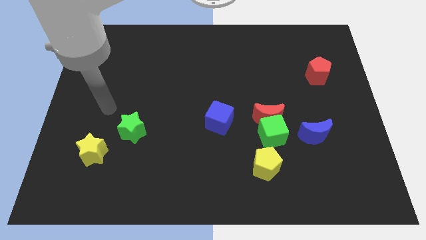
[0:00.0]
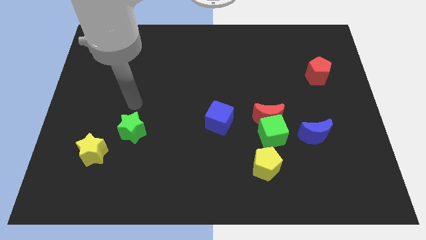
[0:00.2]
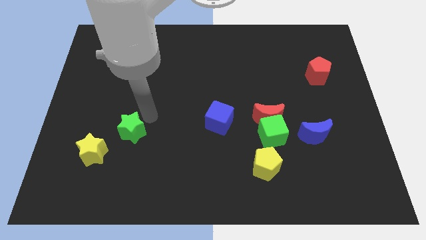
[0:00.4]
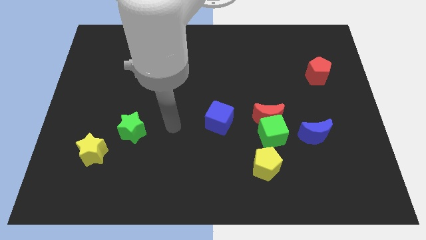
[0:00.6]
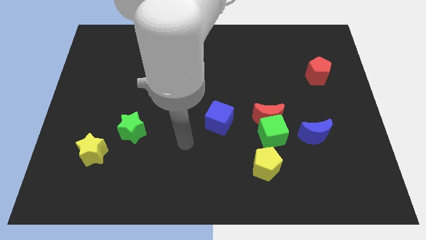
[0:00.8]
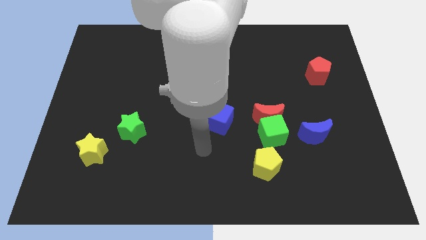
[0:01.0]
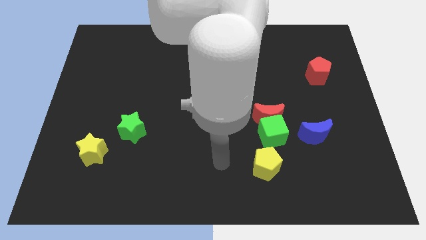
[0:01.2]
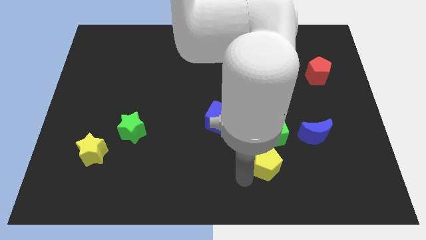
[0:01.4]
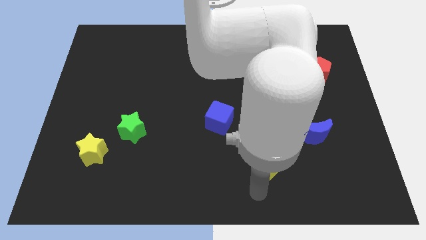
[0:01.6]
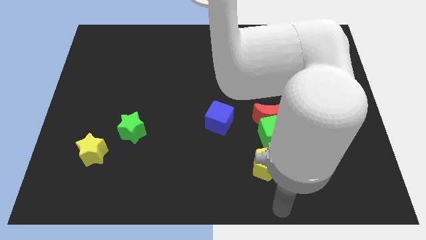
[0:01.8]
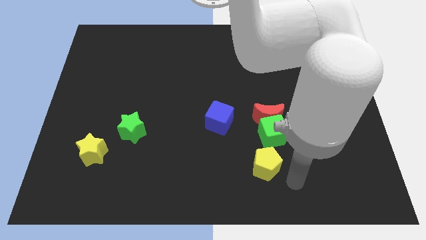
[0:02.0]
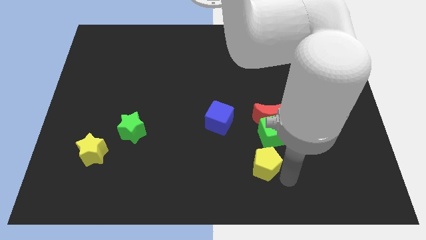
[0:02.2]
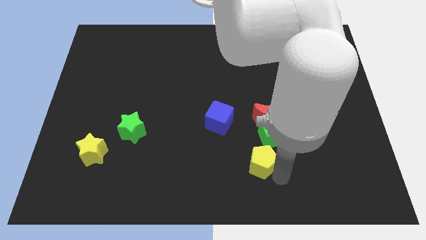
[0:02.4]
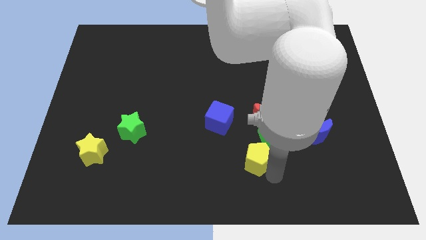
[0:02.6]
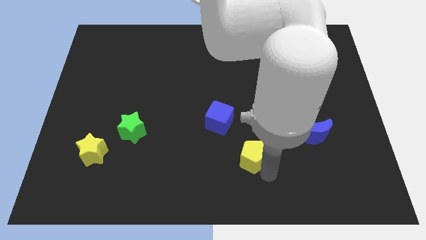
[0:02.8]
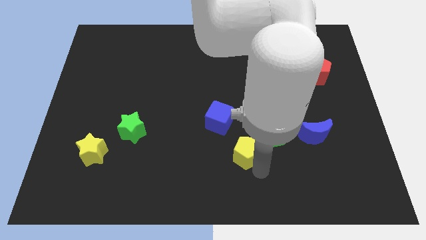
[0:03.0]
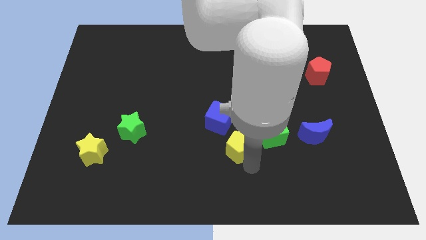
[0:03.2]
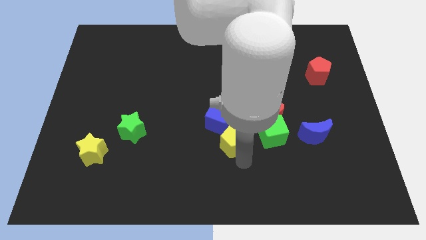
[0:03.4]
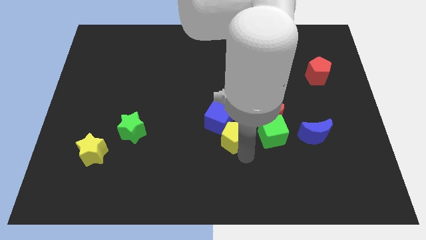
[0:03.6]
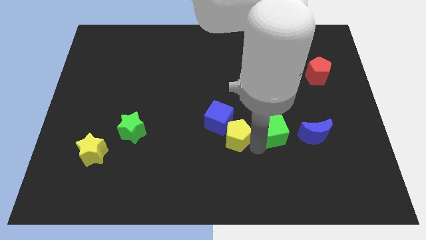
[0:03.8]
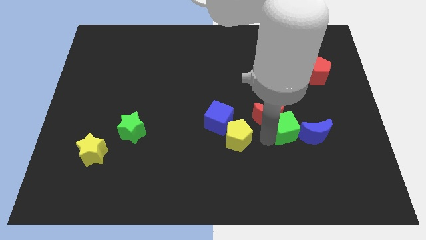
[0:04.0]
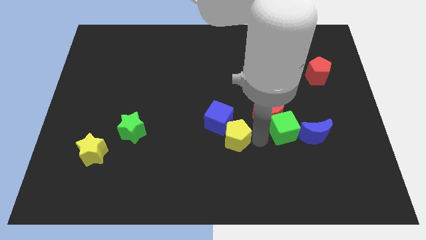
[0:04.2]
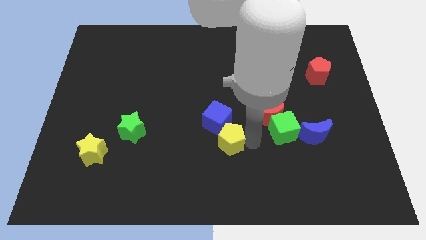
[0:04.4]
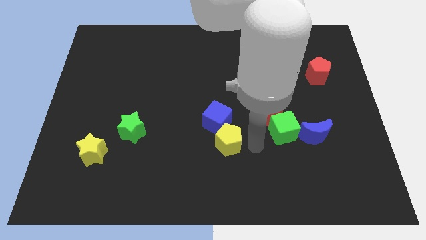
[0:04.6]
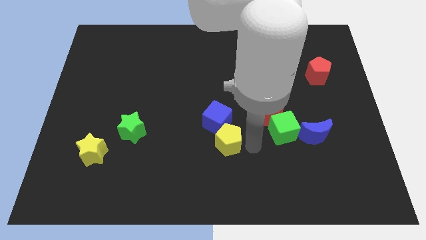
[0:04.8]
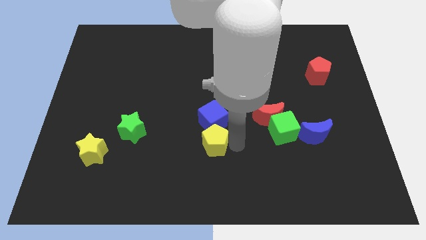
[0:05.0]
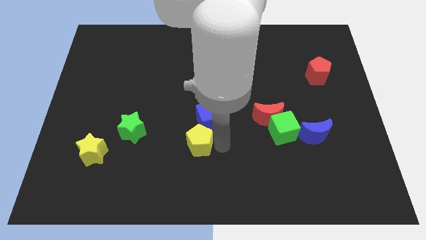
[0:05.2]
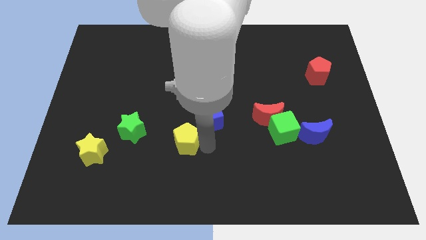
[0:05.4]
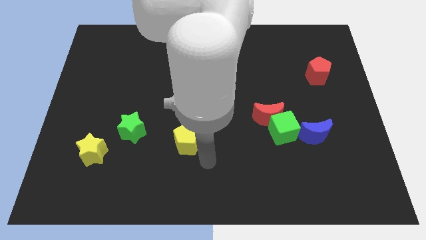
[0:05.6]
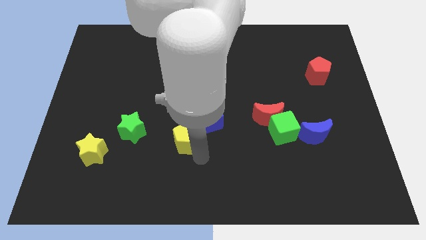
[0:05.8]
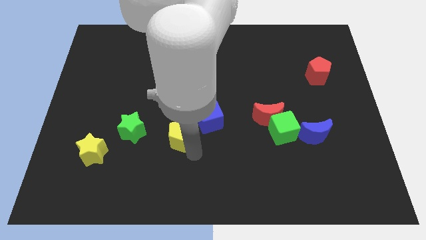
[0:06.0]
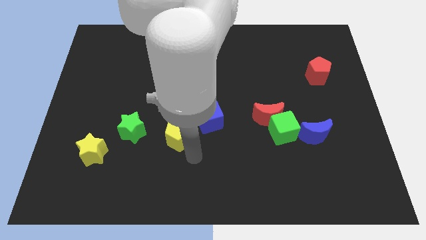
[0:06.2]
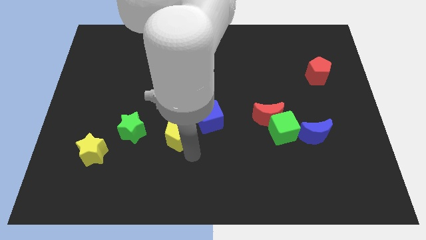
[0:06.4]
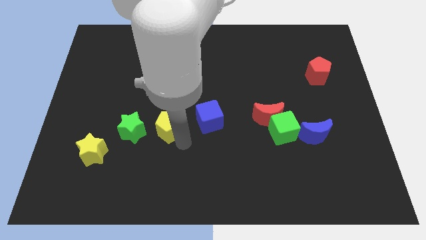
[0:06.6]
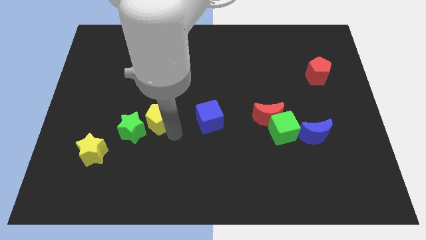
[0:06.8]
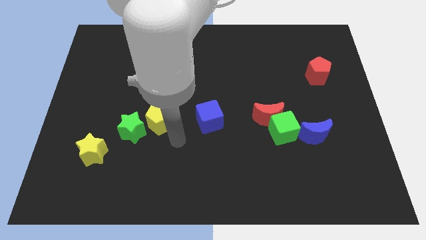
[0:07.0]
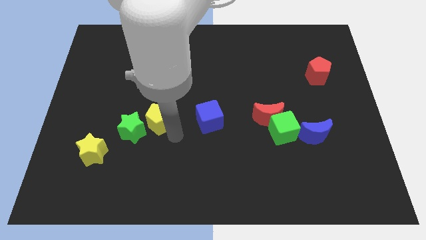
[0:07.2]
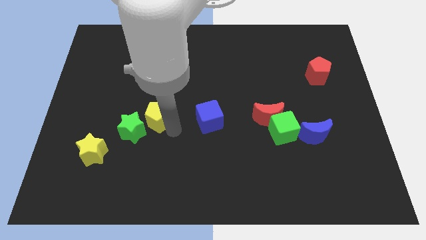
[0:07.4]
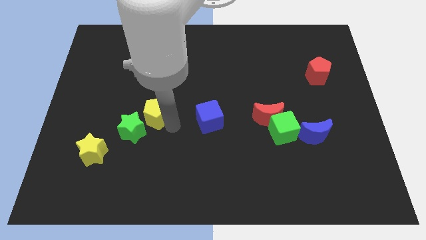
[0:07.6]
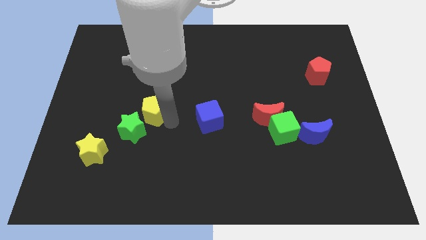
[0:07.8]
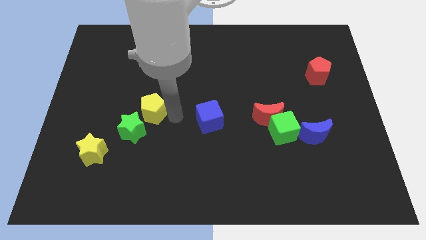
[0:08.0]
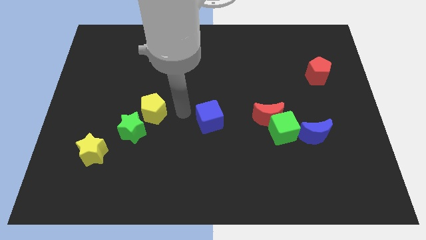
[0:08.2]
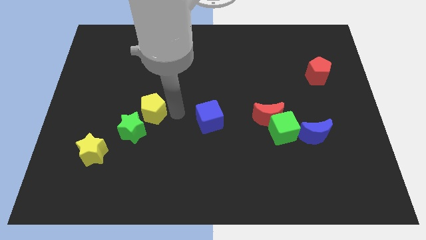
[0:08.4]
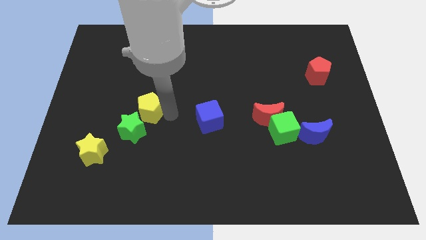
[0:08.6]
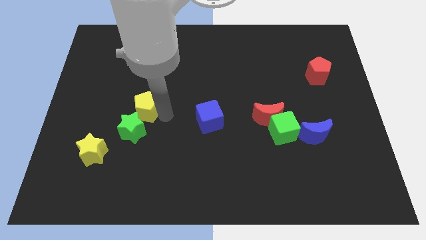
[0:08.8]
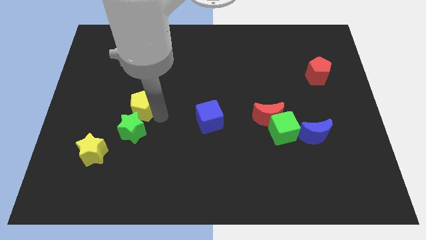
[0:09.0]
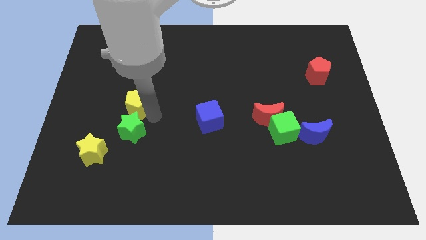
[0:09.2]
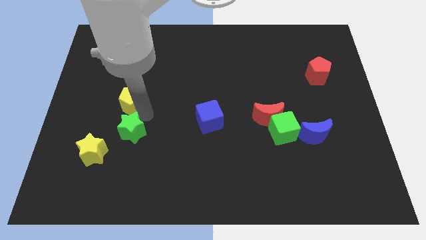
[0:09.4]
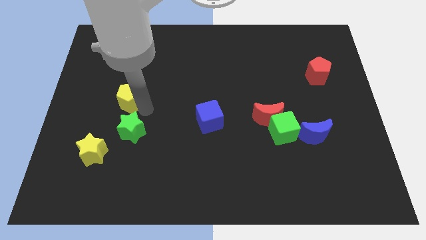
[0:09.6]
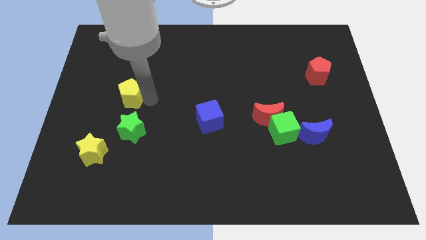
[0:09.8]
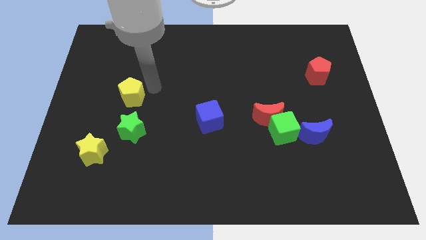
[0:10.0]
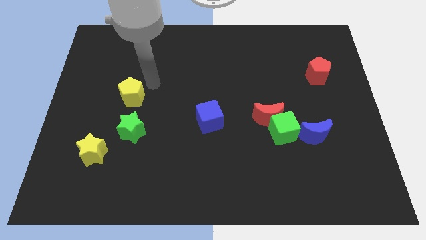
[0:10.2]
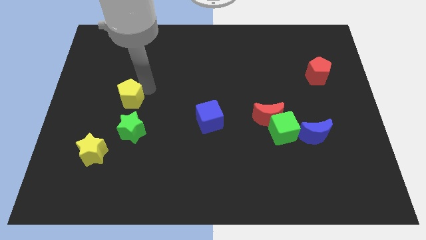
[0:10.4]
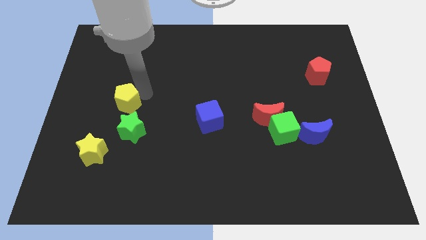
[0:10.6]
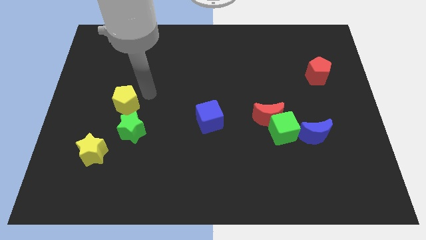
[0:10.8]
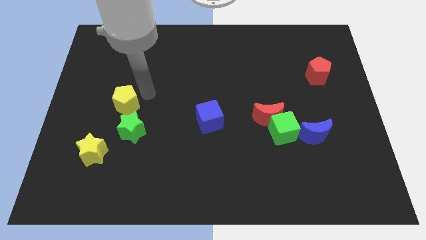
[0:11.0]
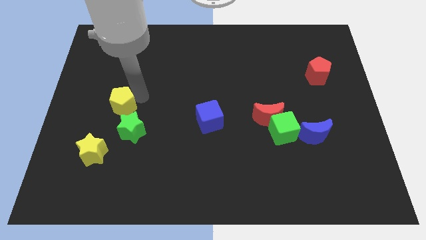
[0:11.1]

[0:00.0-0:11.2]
move the yellow pentagon to the top of the yellow star

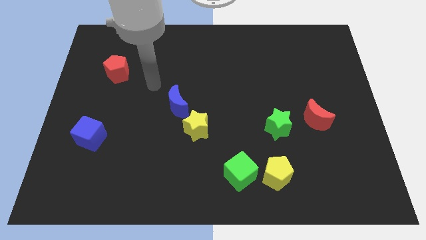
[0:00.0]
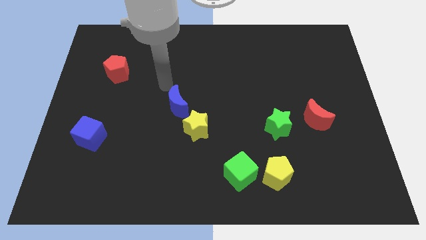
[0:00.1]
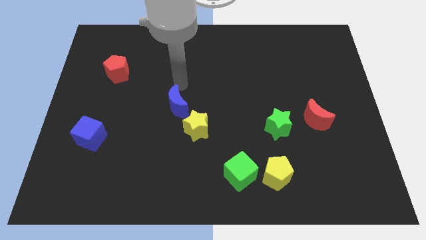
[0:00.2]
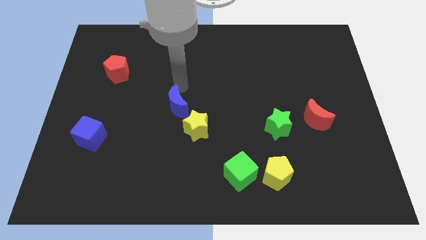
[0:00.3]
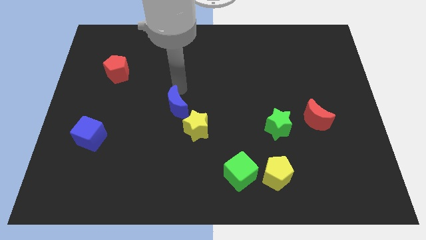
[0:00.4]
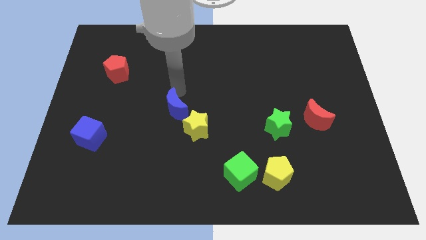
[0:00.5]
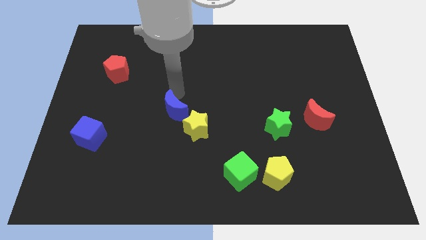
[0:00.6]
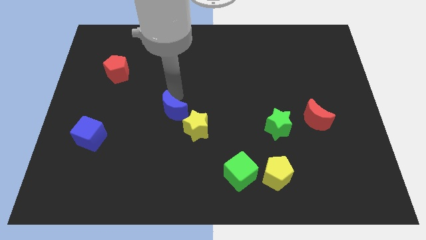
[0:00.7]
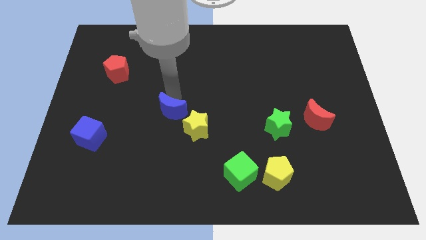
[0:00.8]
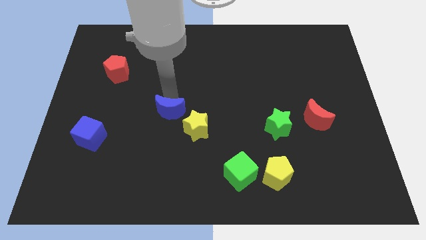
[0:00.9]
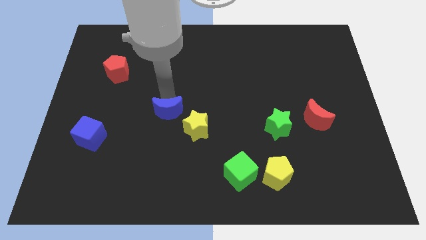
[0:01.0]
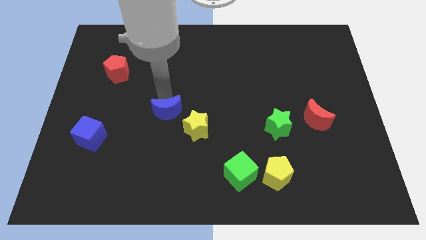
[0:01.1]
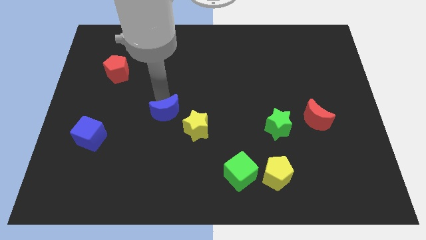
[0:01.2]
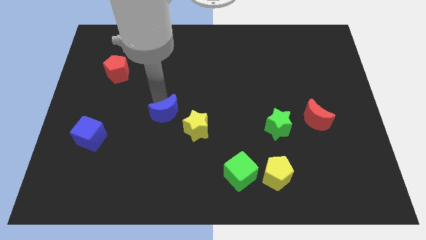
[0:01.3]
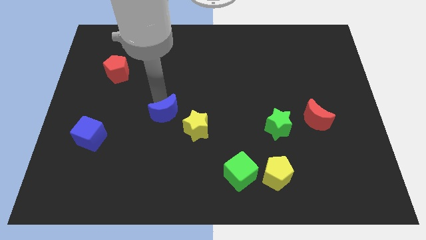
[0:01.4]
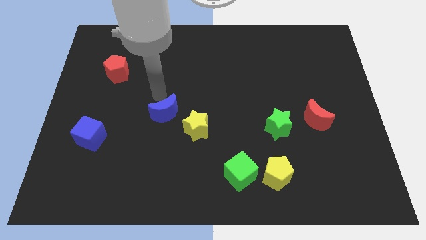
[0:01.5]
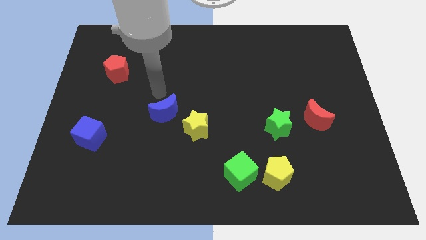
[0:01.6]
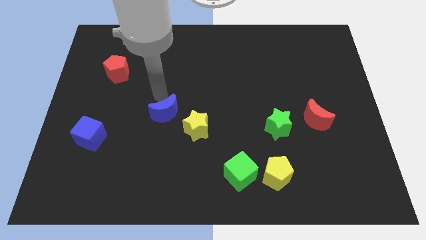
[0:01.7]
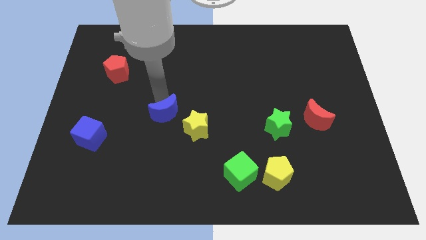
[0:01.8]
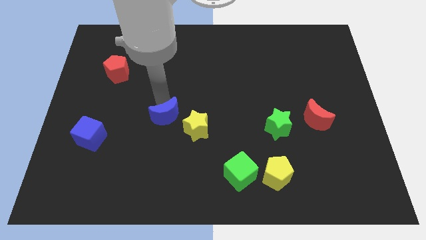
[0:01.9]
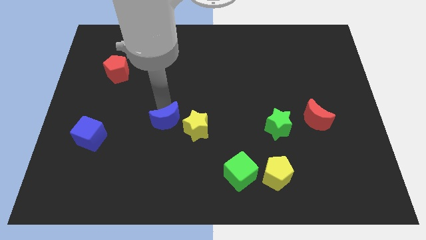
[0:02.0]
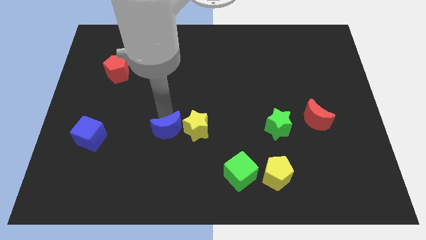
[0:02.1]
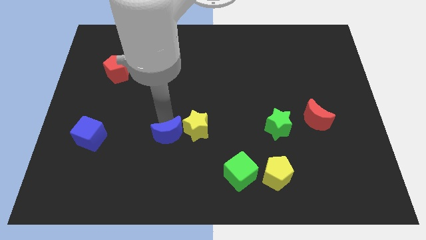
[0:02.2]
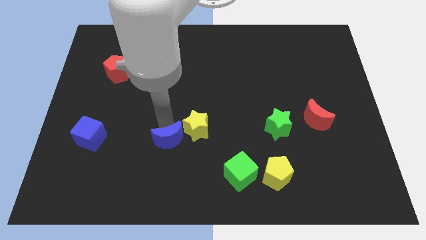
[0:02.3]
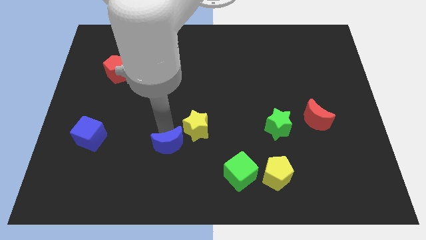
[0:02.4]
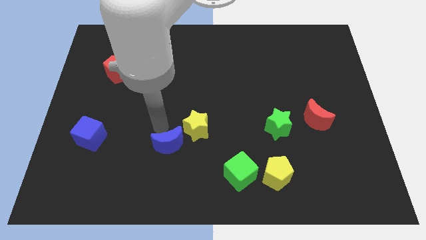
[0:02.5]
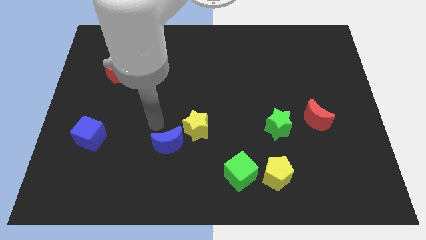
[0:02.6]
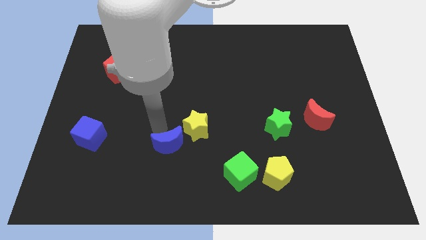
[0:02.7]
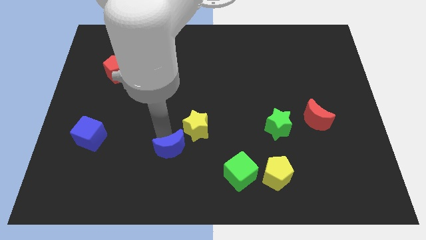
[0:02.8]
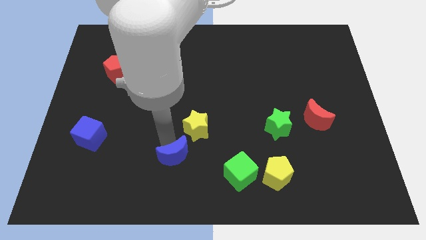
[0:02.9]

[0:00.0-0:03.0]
put the blue moon to the left side of the green cube
